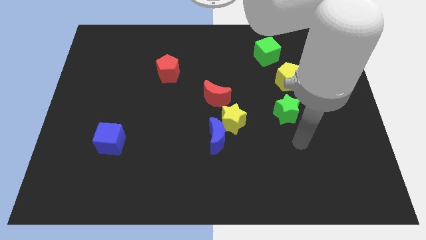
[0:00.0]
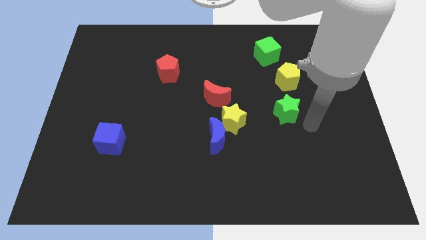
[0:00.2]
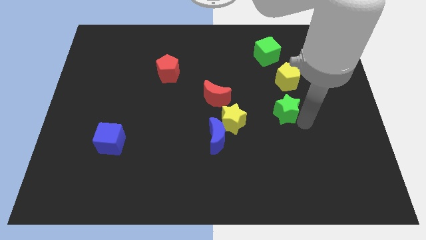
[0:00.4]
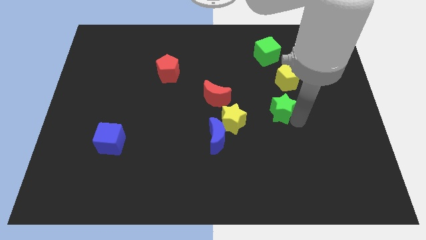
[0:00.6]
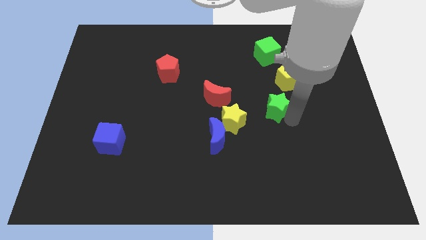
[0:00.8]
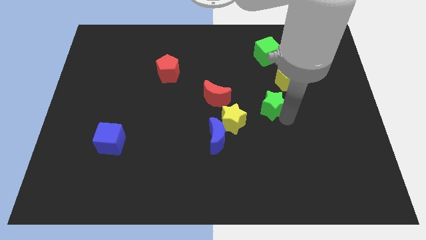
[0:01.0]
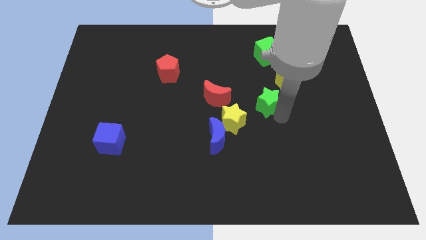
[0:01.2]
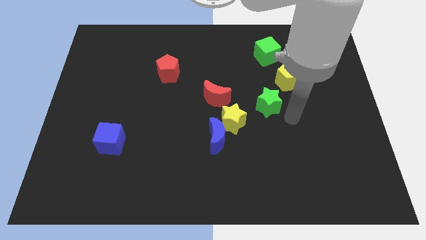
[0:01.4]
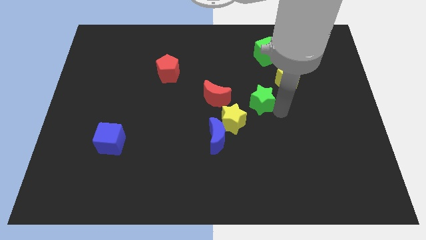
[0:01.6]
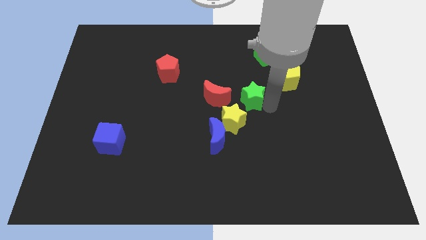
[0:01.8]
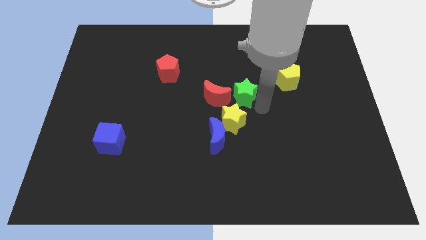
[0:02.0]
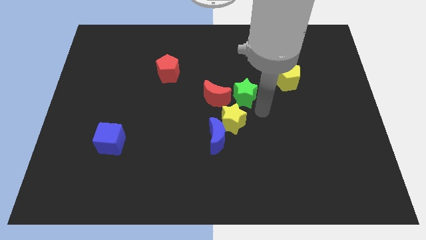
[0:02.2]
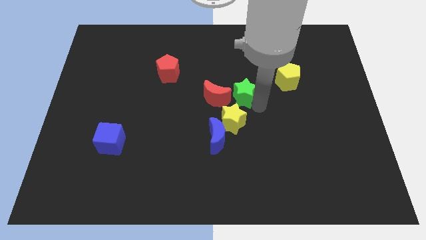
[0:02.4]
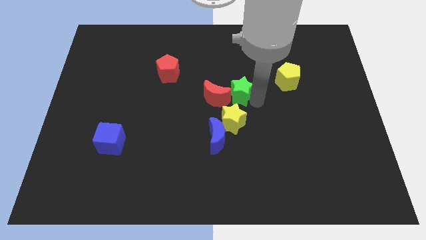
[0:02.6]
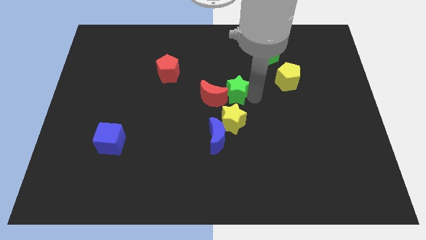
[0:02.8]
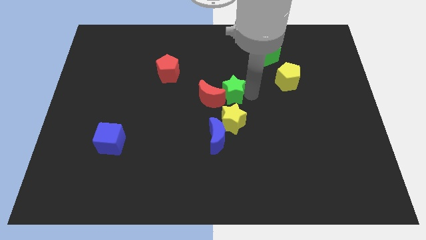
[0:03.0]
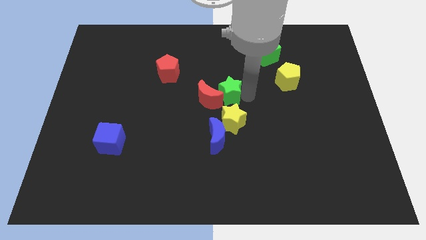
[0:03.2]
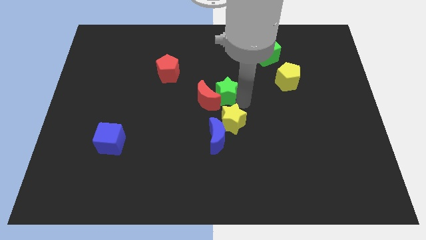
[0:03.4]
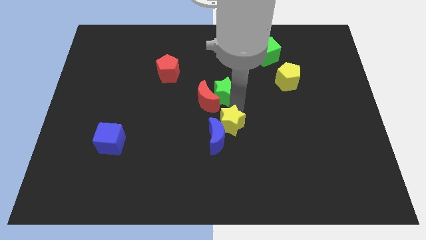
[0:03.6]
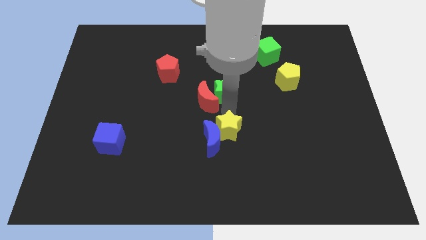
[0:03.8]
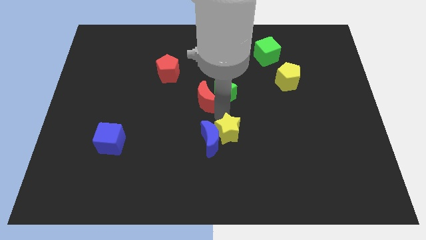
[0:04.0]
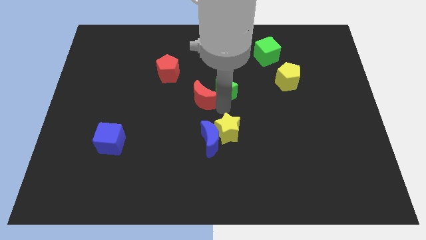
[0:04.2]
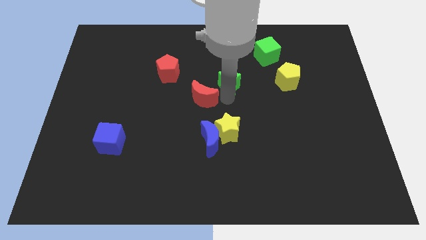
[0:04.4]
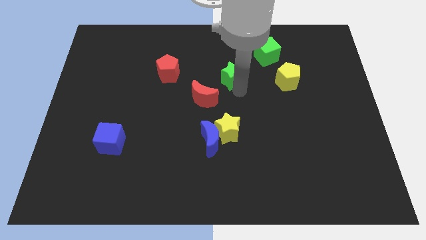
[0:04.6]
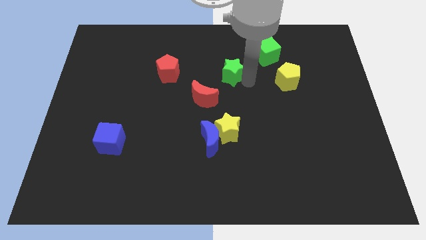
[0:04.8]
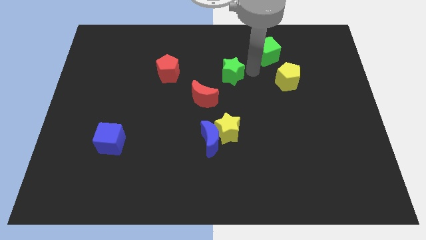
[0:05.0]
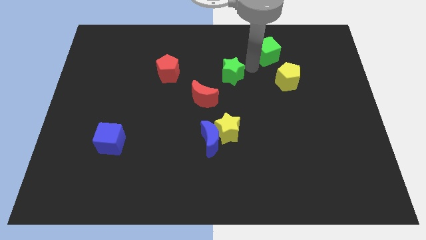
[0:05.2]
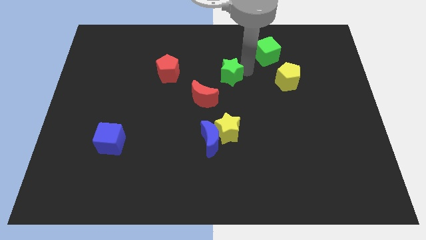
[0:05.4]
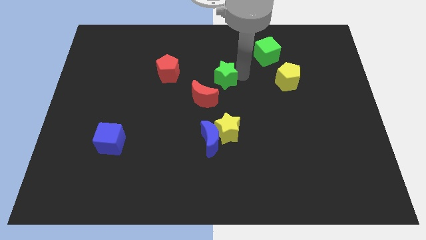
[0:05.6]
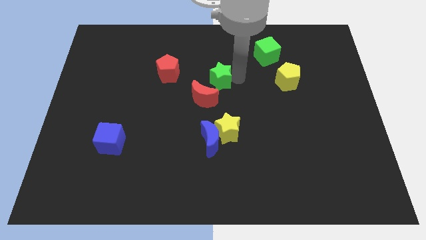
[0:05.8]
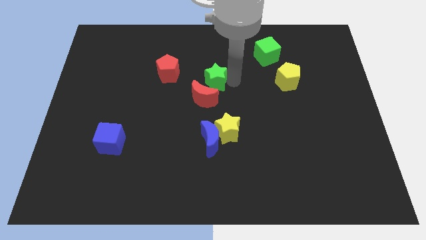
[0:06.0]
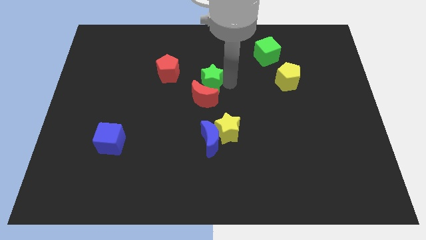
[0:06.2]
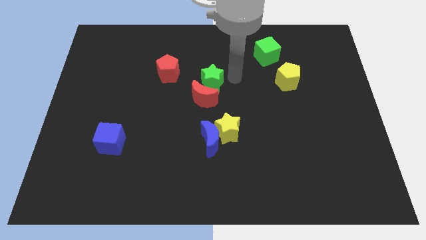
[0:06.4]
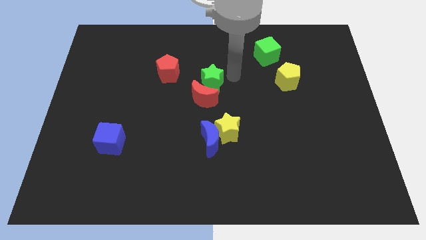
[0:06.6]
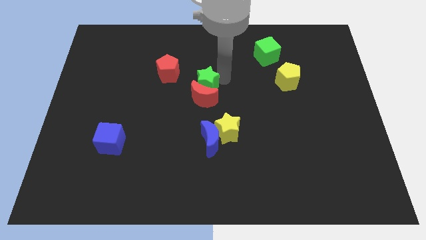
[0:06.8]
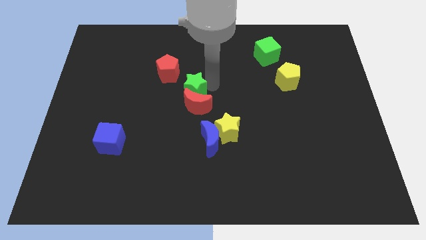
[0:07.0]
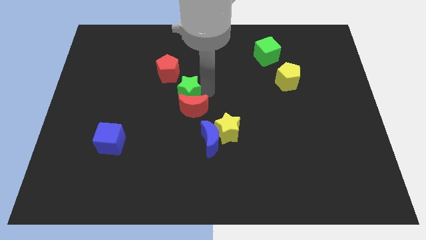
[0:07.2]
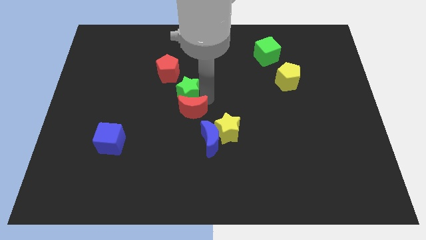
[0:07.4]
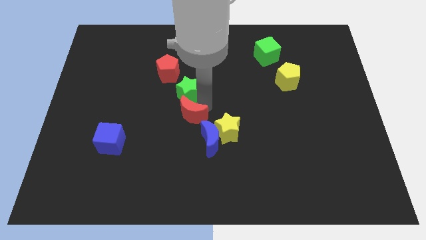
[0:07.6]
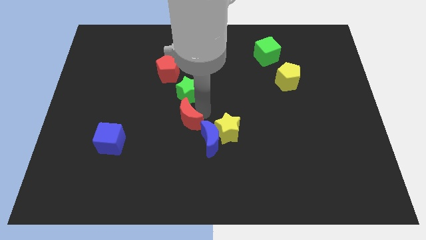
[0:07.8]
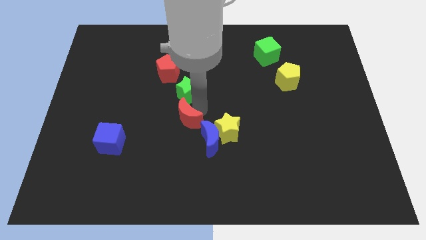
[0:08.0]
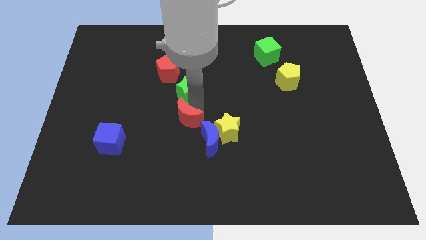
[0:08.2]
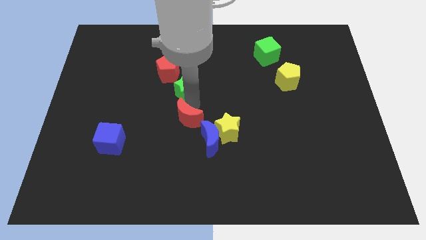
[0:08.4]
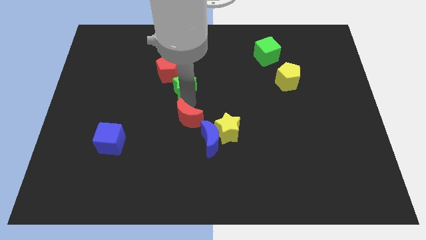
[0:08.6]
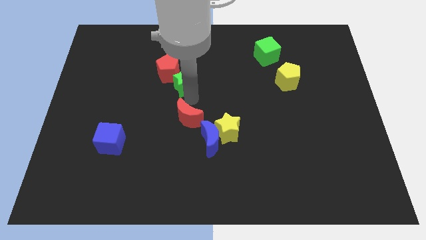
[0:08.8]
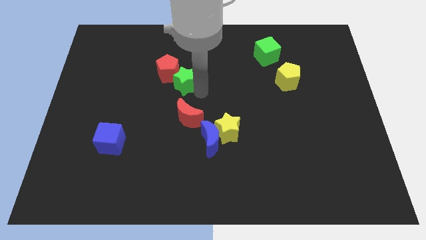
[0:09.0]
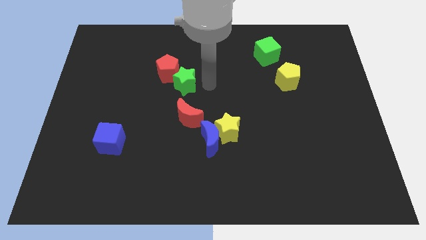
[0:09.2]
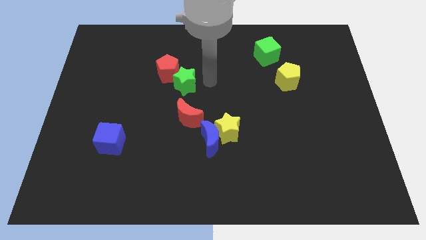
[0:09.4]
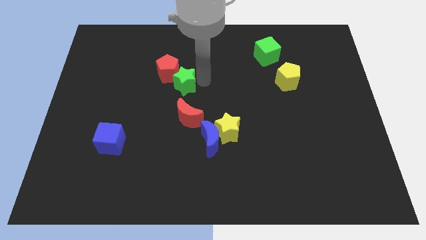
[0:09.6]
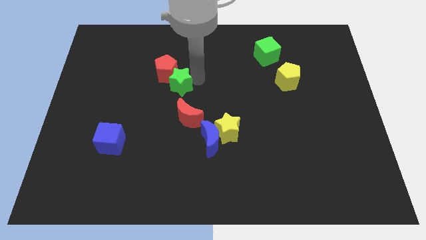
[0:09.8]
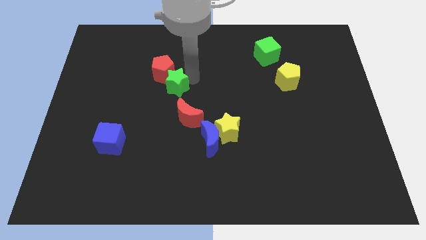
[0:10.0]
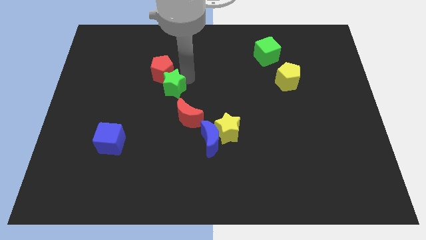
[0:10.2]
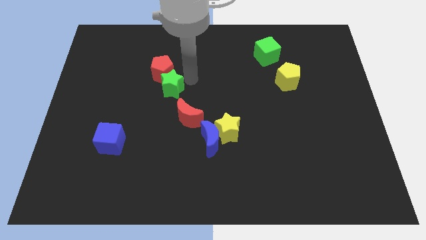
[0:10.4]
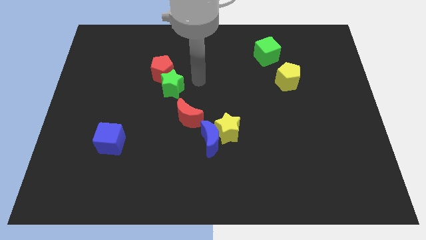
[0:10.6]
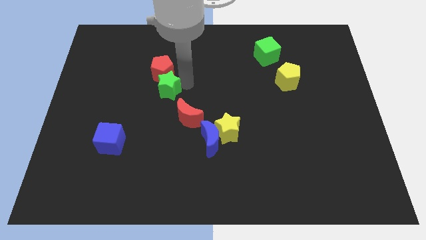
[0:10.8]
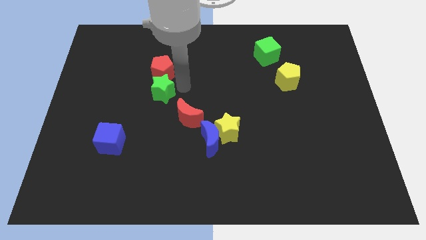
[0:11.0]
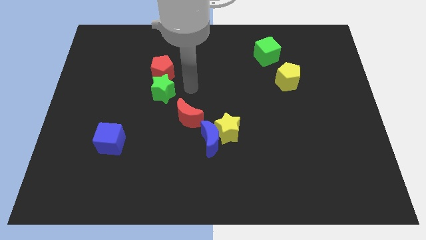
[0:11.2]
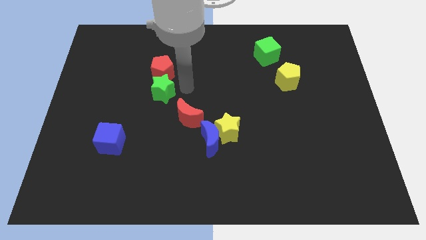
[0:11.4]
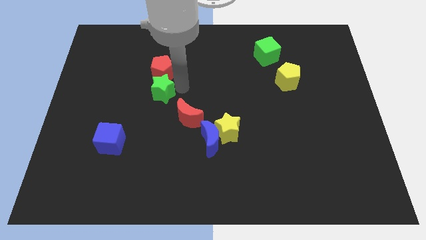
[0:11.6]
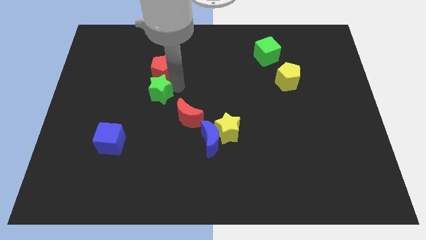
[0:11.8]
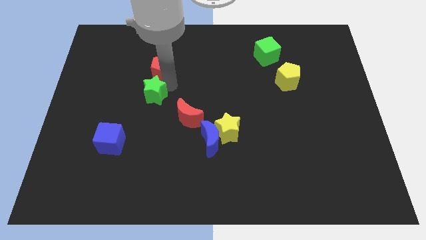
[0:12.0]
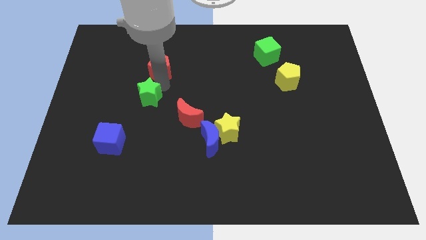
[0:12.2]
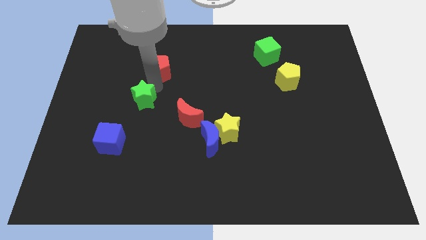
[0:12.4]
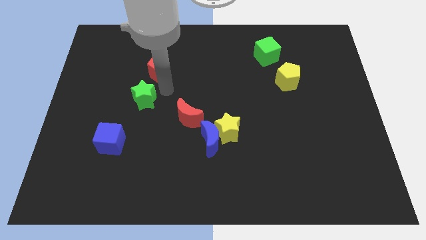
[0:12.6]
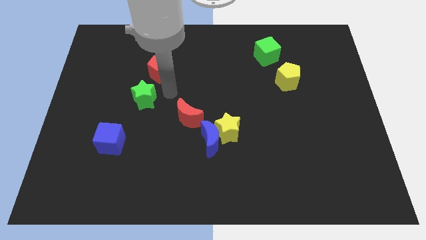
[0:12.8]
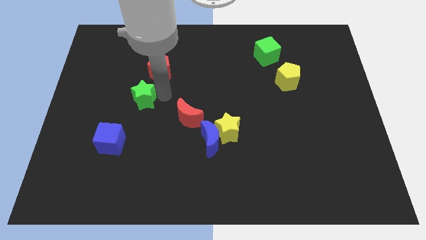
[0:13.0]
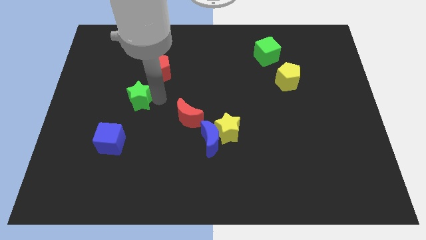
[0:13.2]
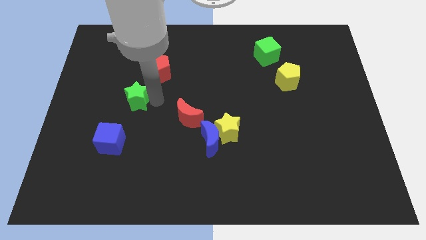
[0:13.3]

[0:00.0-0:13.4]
put the green star to the top side of the blue cube
